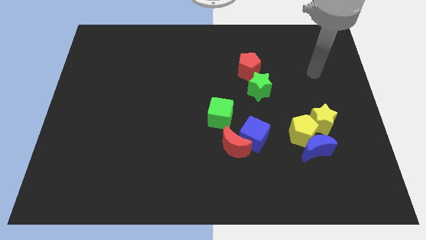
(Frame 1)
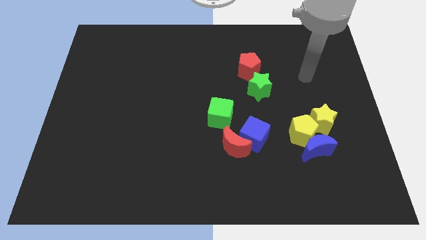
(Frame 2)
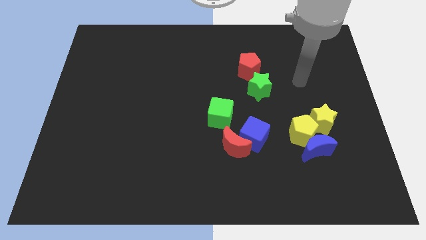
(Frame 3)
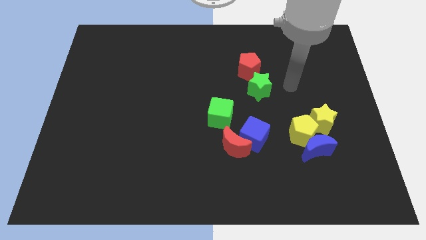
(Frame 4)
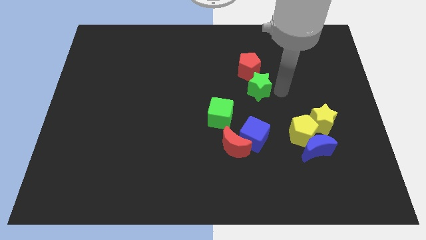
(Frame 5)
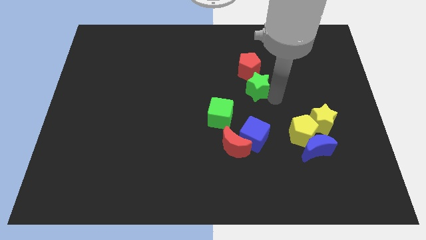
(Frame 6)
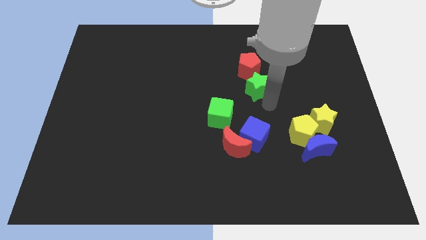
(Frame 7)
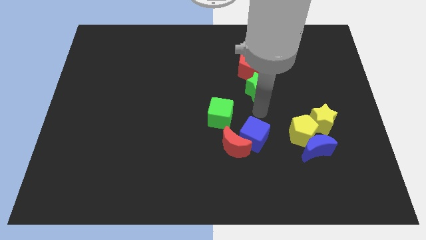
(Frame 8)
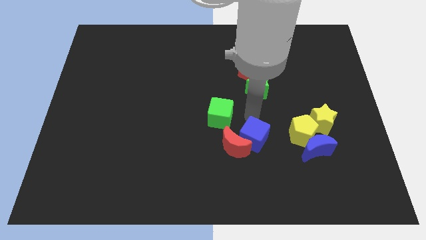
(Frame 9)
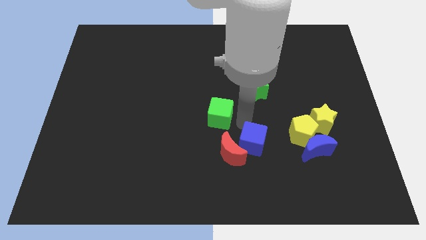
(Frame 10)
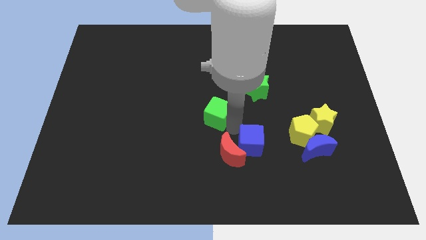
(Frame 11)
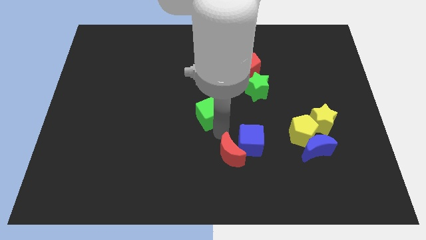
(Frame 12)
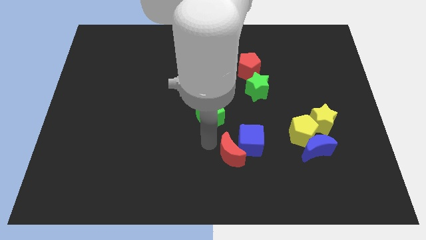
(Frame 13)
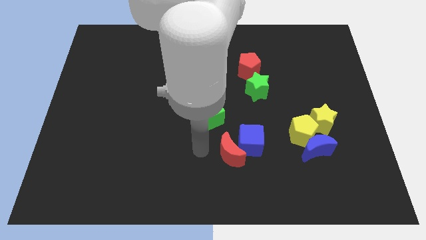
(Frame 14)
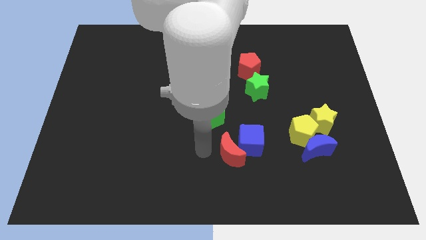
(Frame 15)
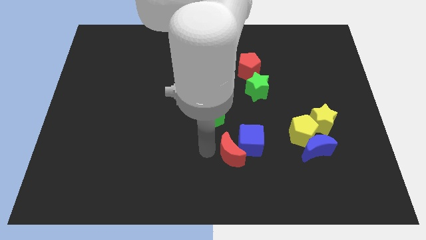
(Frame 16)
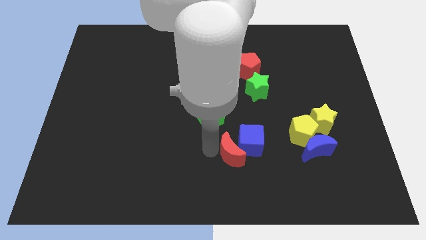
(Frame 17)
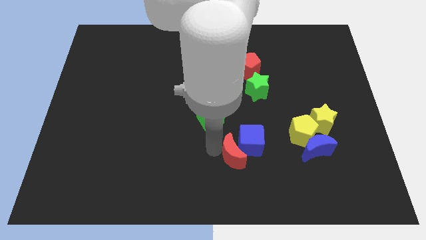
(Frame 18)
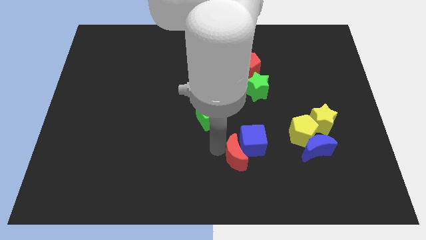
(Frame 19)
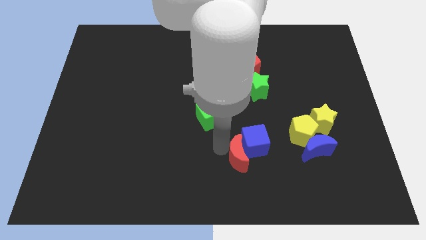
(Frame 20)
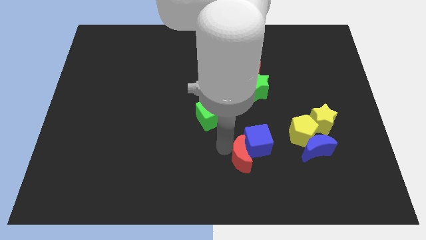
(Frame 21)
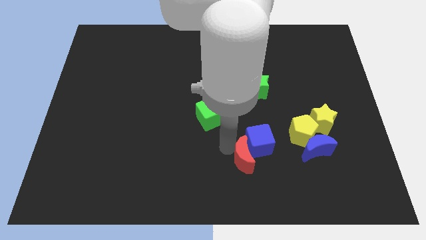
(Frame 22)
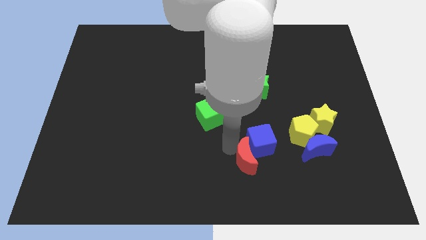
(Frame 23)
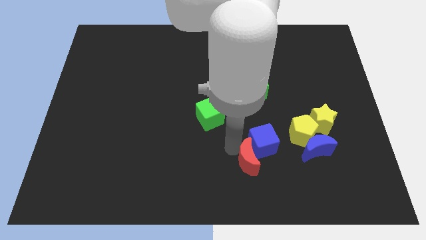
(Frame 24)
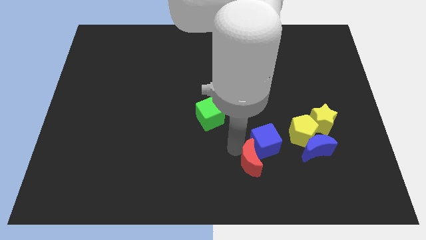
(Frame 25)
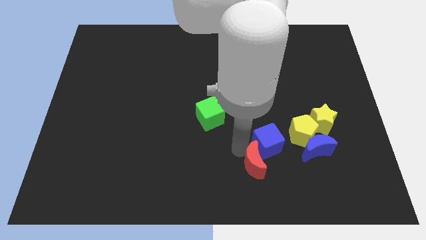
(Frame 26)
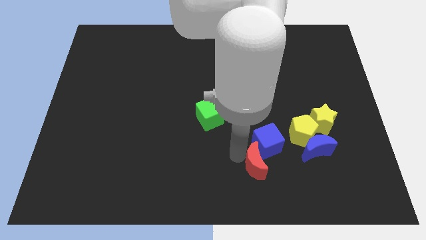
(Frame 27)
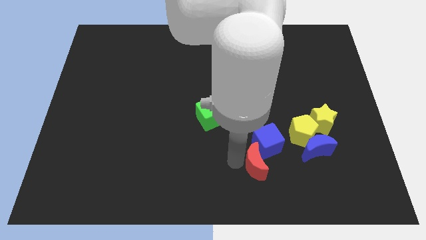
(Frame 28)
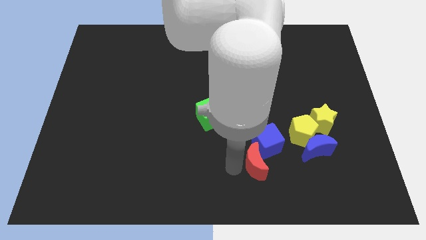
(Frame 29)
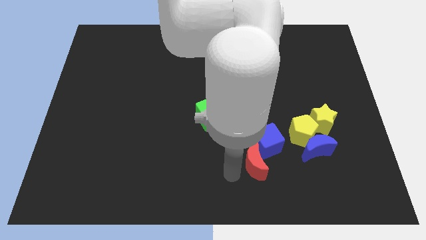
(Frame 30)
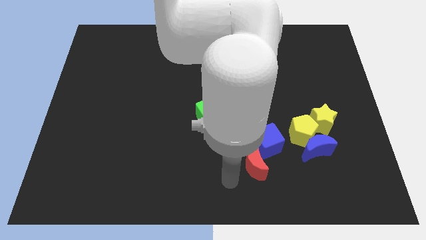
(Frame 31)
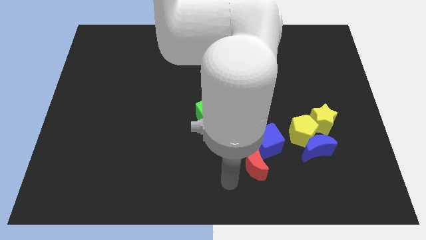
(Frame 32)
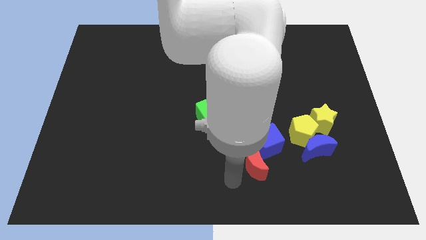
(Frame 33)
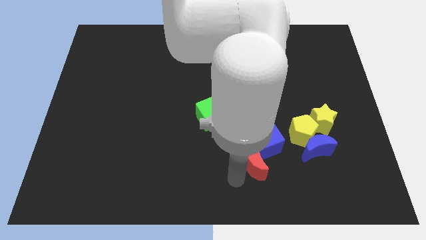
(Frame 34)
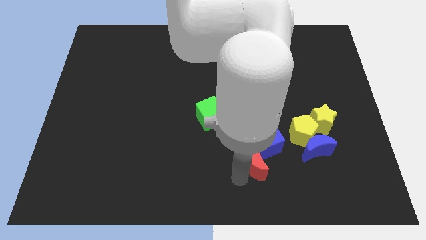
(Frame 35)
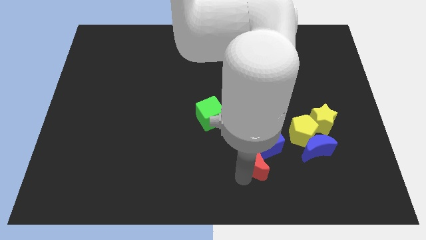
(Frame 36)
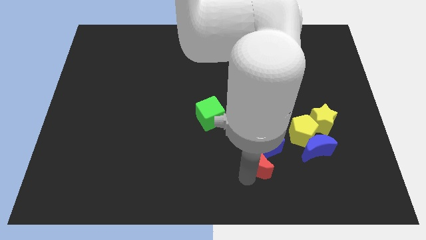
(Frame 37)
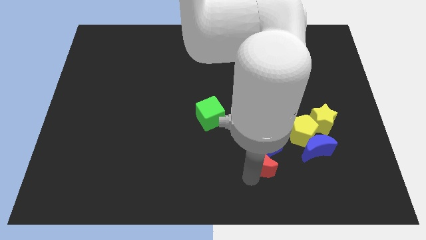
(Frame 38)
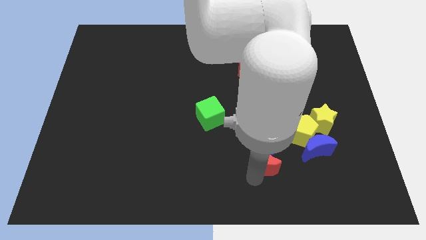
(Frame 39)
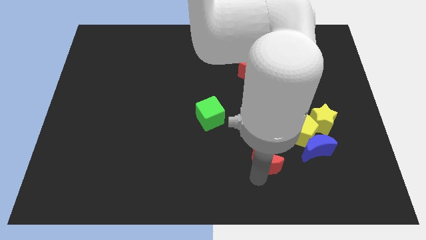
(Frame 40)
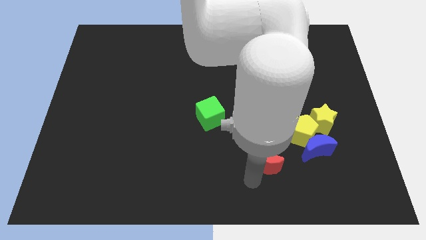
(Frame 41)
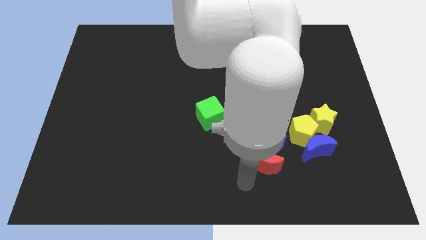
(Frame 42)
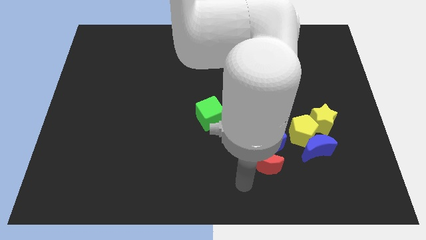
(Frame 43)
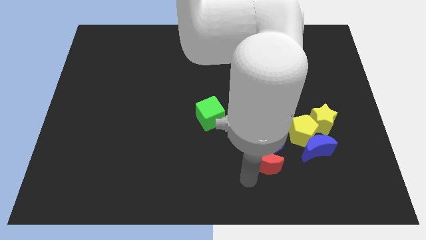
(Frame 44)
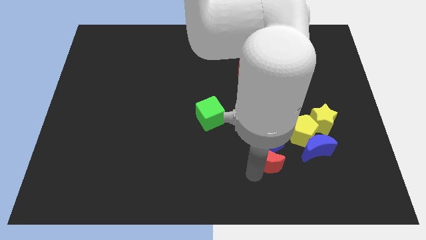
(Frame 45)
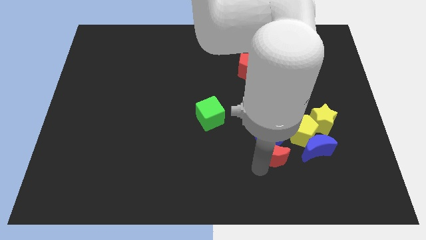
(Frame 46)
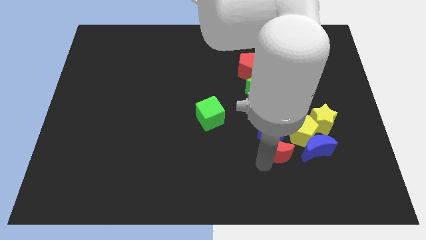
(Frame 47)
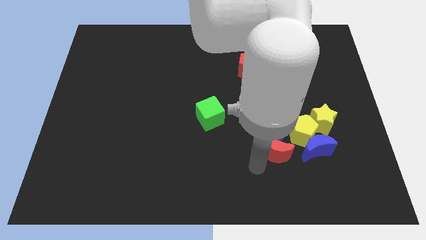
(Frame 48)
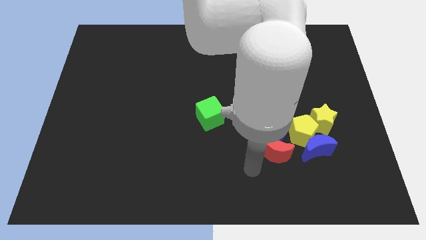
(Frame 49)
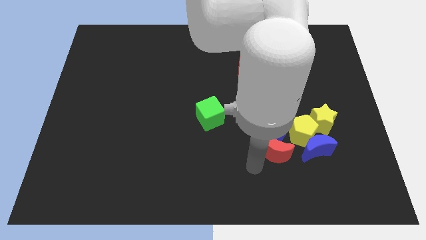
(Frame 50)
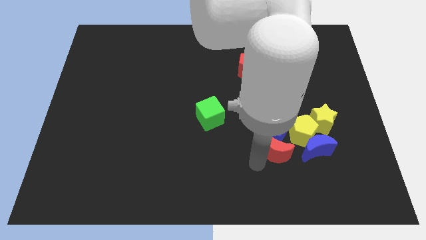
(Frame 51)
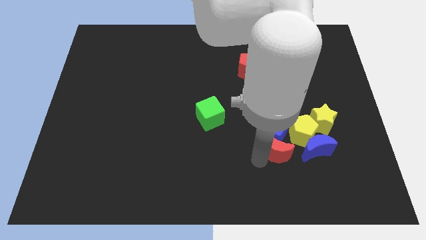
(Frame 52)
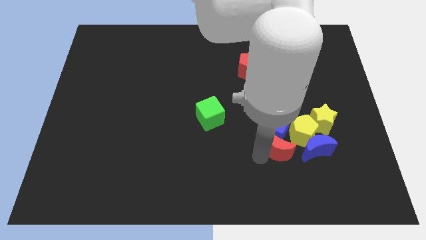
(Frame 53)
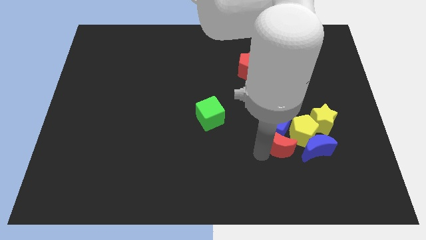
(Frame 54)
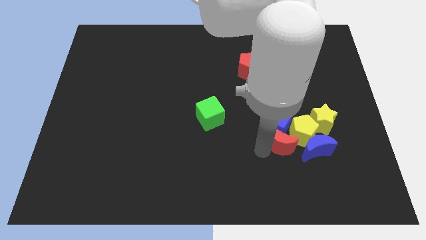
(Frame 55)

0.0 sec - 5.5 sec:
move the red moon close to the yellow pentagon

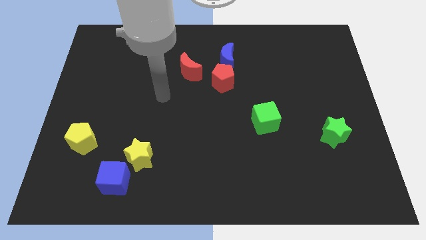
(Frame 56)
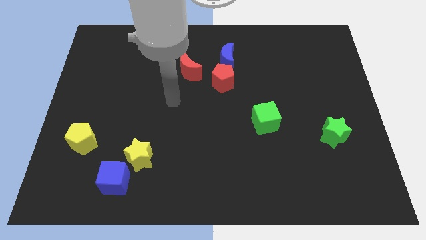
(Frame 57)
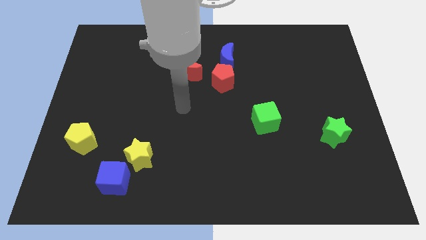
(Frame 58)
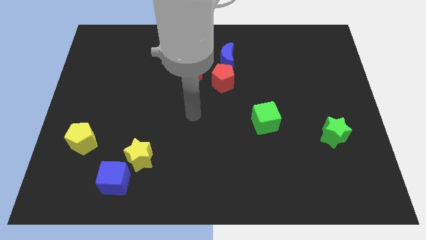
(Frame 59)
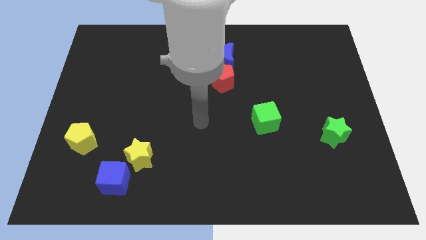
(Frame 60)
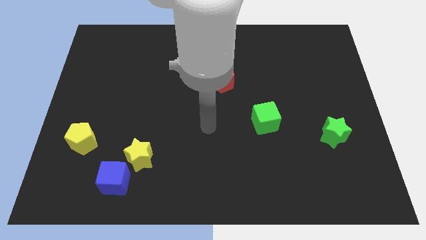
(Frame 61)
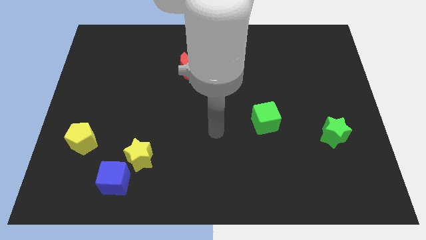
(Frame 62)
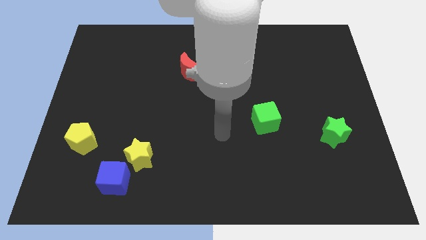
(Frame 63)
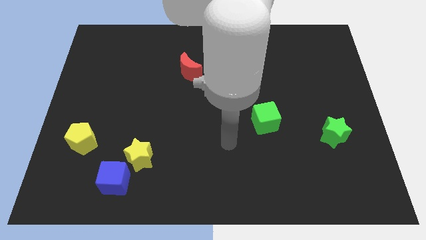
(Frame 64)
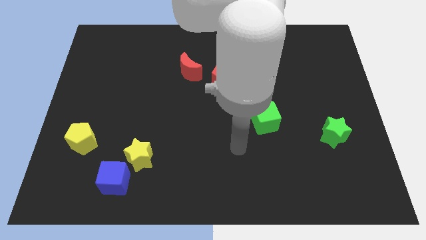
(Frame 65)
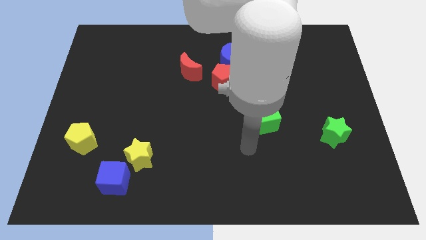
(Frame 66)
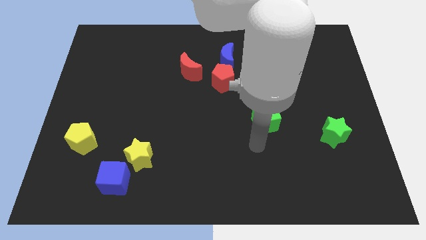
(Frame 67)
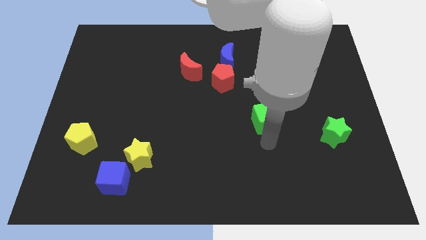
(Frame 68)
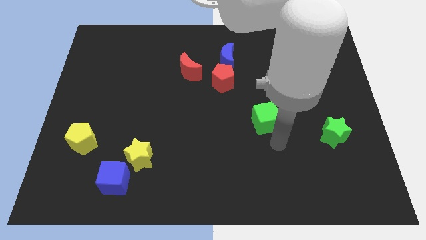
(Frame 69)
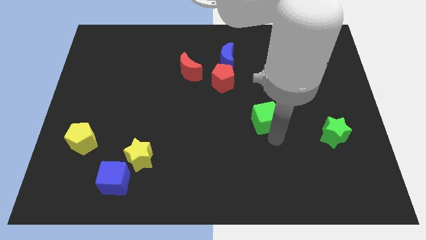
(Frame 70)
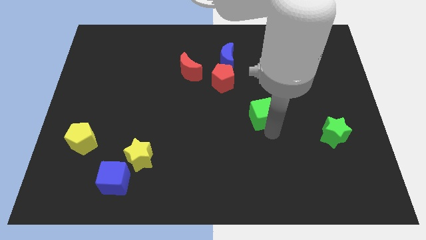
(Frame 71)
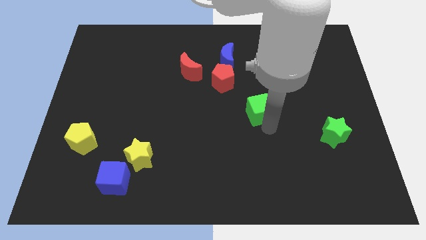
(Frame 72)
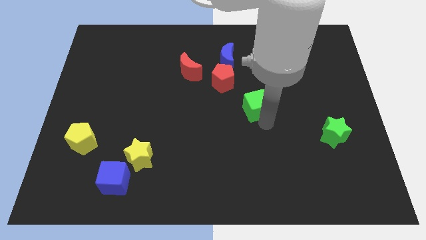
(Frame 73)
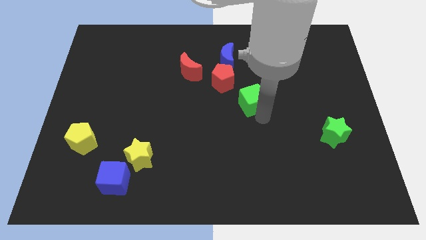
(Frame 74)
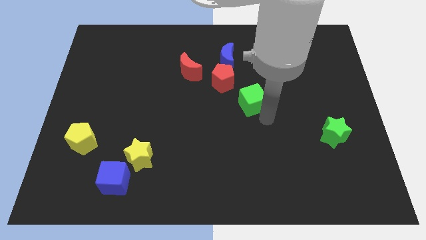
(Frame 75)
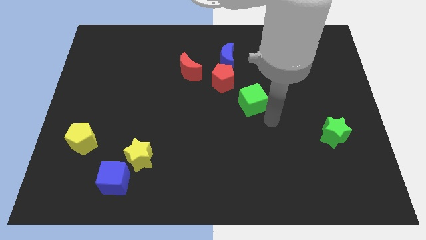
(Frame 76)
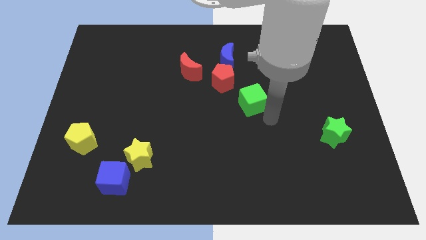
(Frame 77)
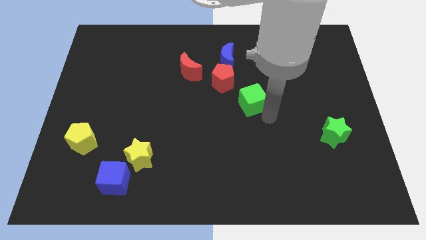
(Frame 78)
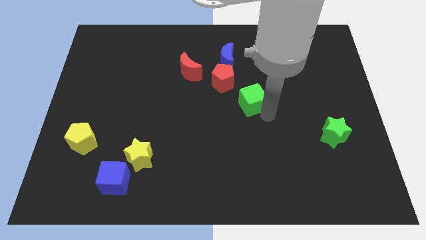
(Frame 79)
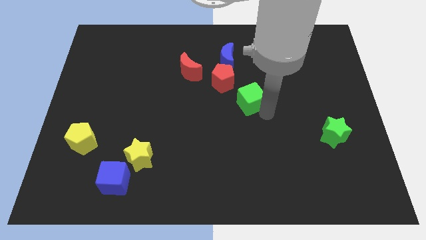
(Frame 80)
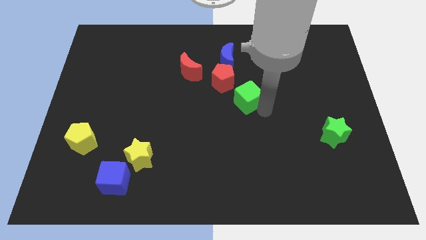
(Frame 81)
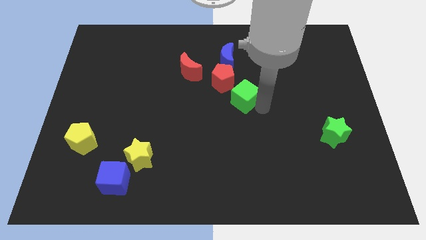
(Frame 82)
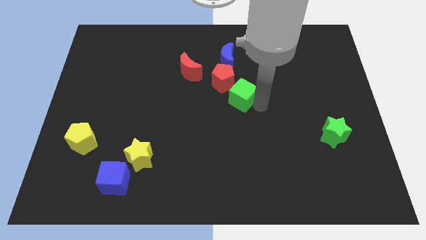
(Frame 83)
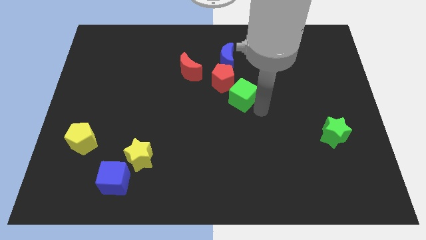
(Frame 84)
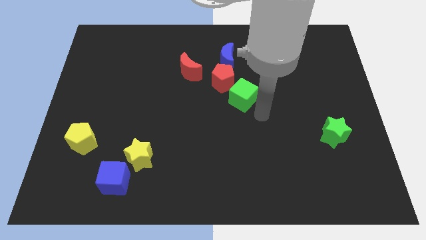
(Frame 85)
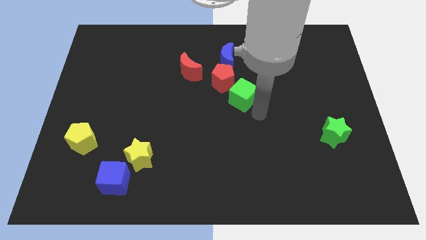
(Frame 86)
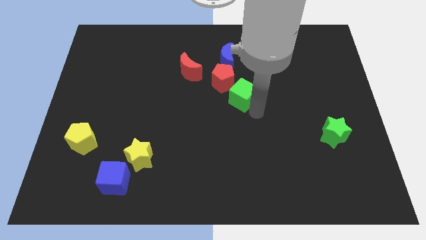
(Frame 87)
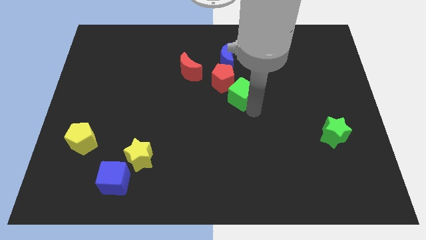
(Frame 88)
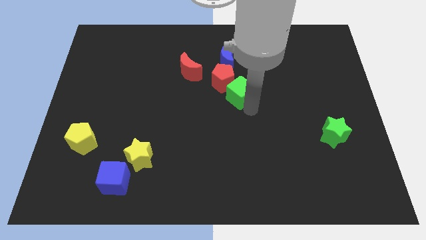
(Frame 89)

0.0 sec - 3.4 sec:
slide the green cube next to the red pentagon
